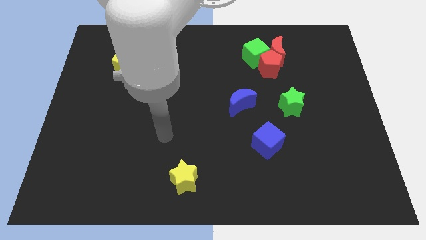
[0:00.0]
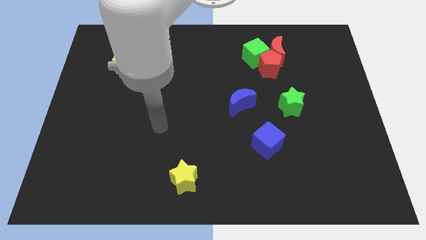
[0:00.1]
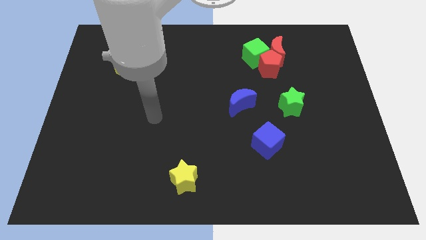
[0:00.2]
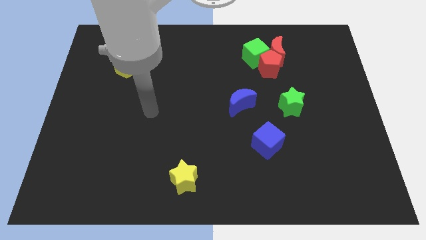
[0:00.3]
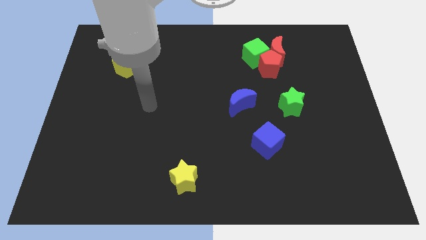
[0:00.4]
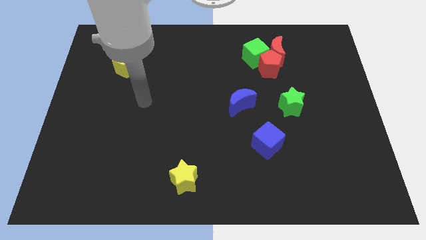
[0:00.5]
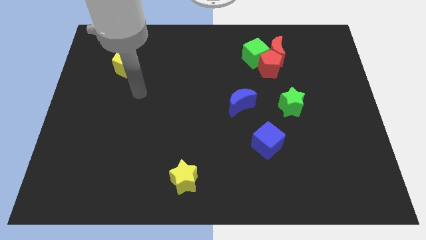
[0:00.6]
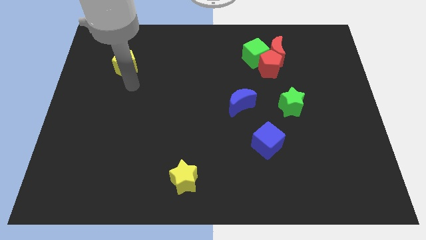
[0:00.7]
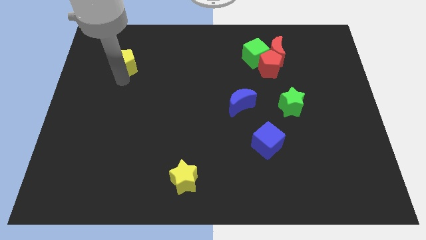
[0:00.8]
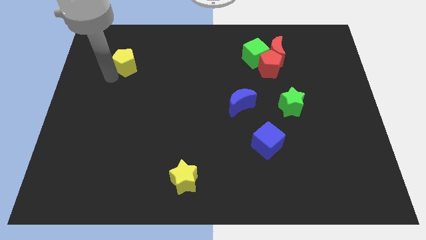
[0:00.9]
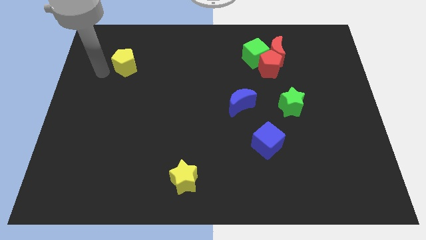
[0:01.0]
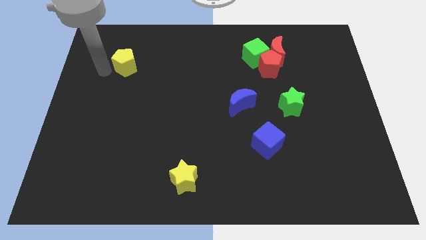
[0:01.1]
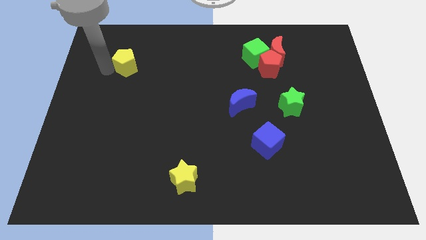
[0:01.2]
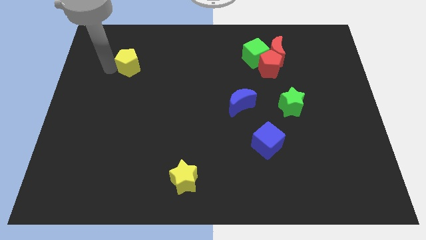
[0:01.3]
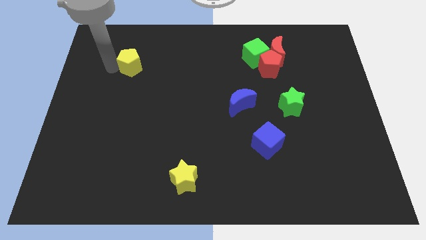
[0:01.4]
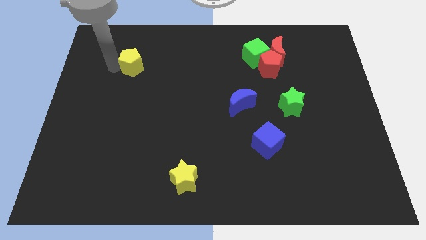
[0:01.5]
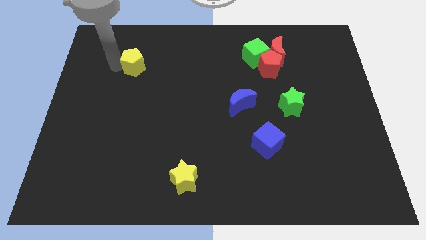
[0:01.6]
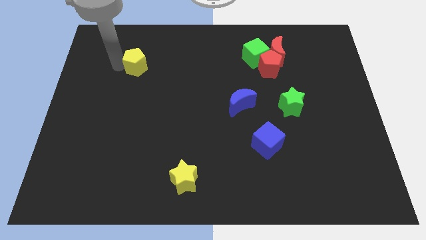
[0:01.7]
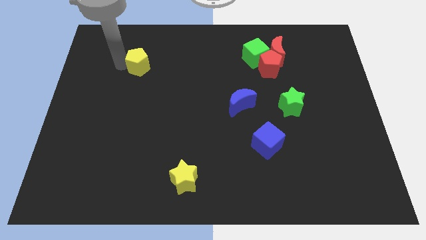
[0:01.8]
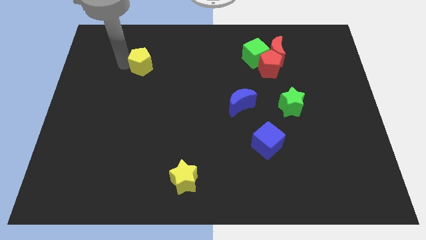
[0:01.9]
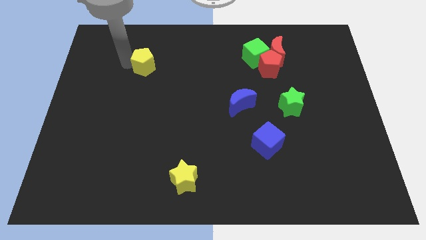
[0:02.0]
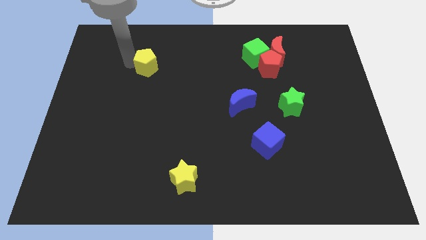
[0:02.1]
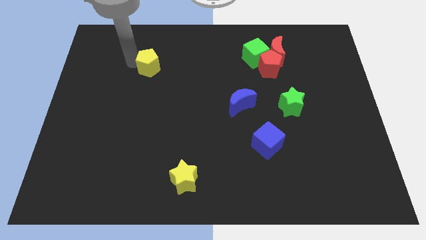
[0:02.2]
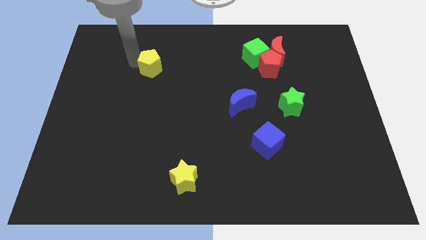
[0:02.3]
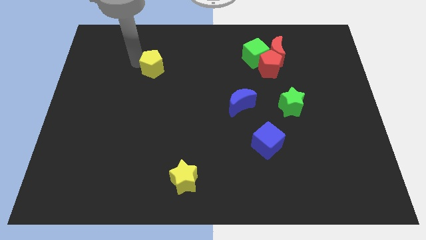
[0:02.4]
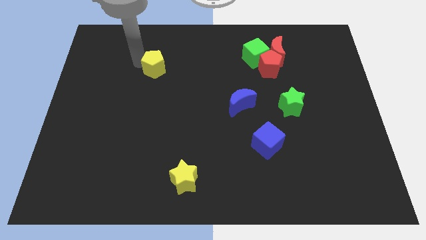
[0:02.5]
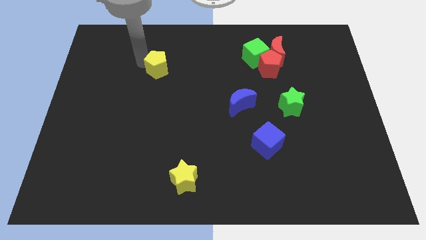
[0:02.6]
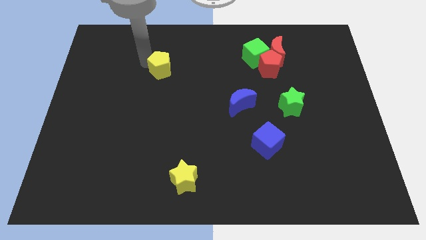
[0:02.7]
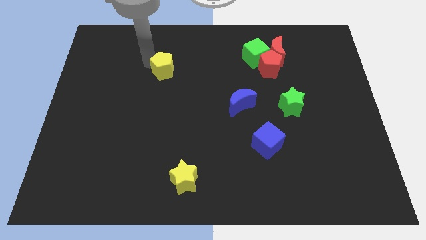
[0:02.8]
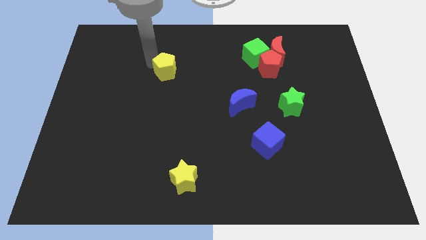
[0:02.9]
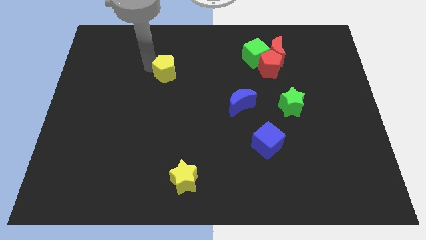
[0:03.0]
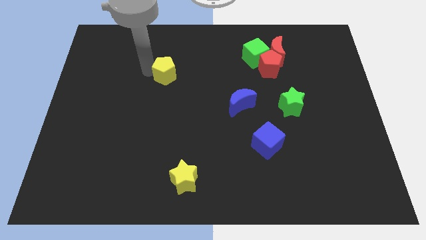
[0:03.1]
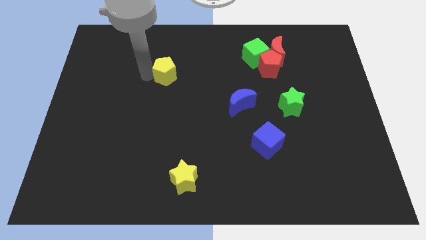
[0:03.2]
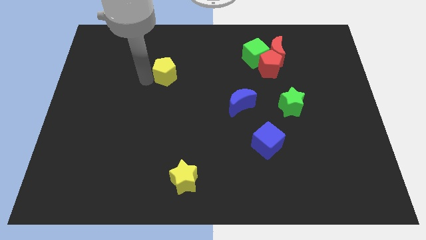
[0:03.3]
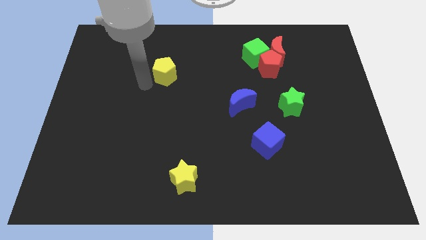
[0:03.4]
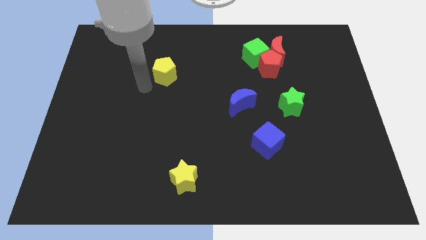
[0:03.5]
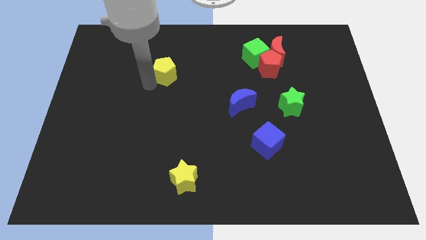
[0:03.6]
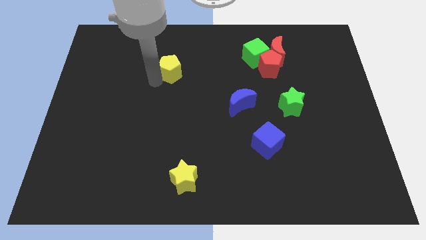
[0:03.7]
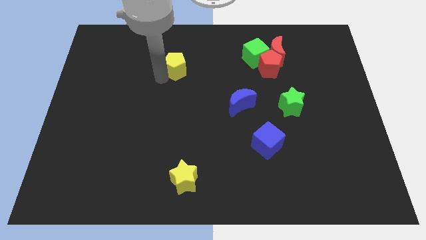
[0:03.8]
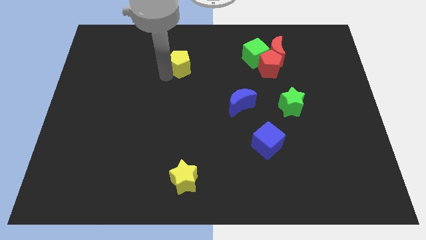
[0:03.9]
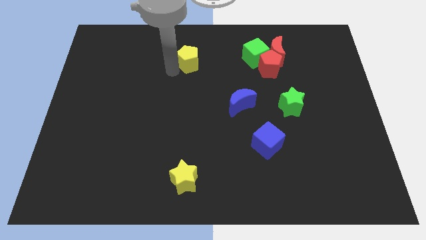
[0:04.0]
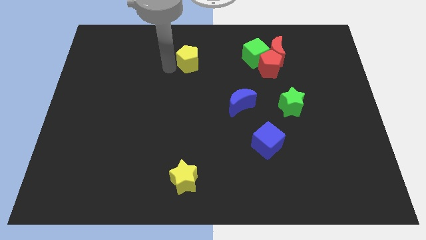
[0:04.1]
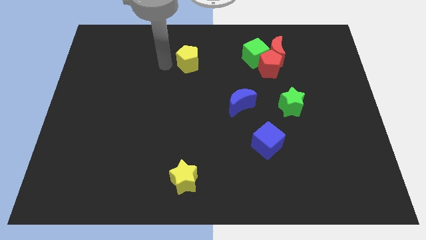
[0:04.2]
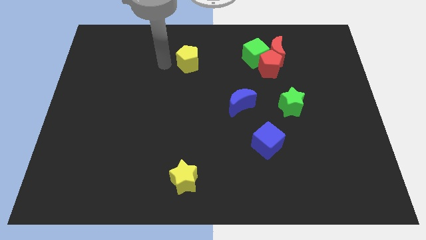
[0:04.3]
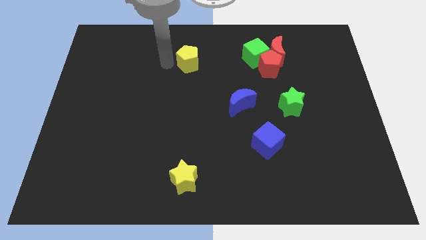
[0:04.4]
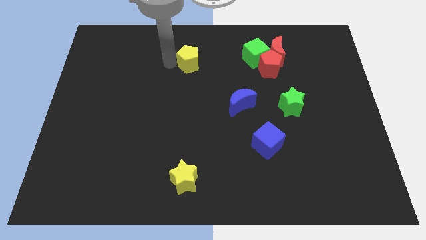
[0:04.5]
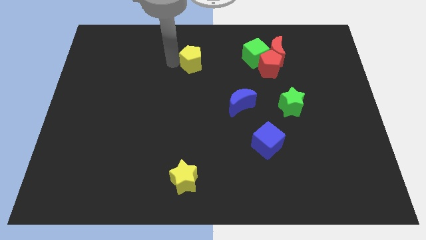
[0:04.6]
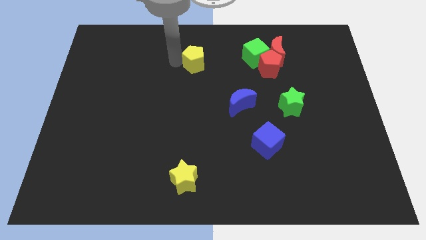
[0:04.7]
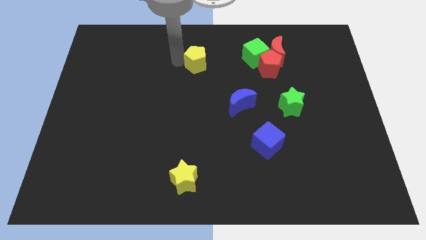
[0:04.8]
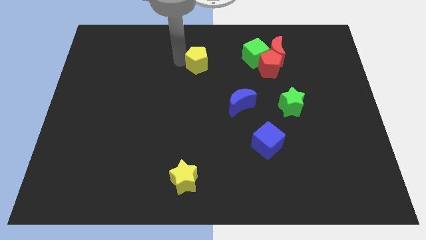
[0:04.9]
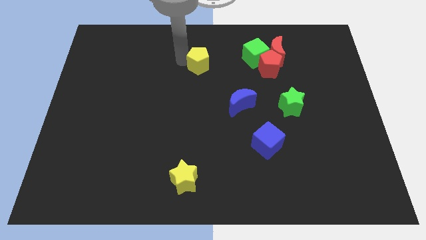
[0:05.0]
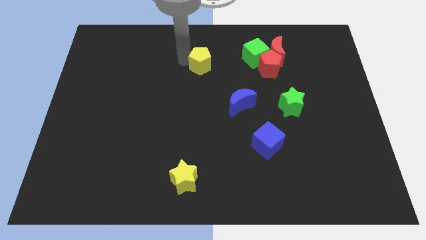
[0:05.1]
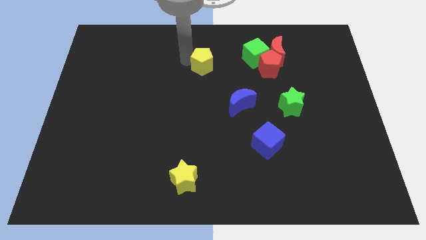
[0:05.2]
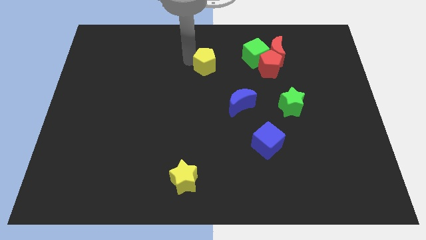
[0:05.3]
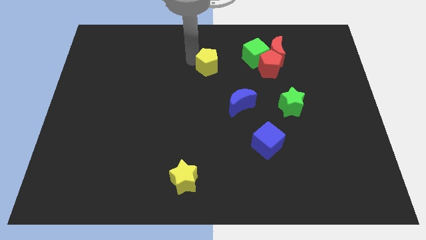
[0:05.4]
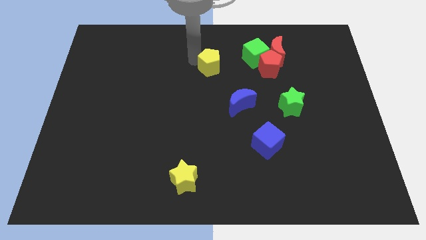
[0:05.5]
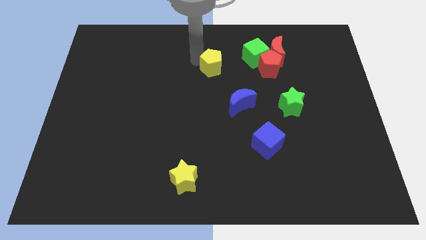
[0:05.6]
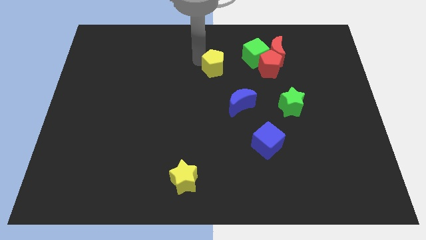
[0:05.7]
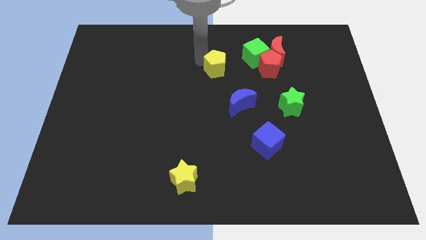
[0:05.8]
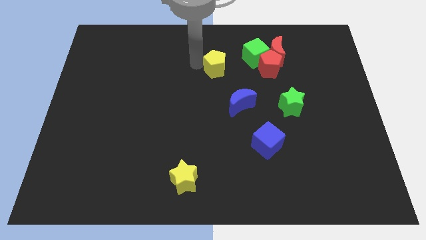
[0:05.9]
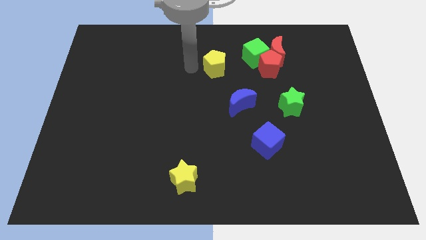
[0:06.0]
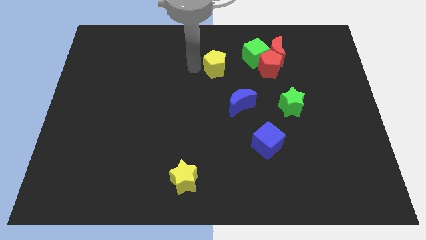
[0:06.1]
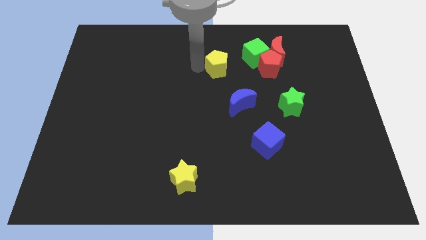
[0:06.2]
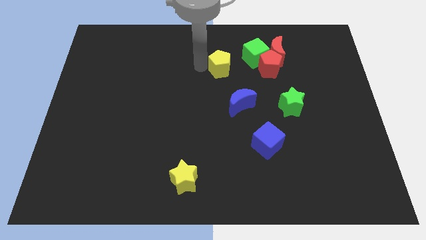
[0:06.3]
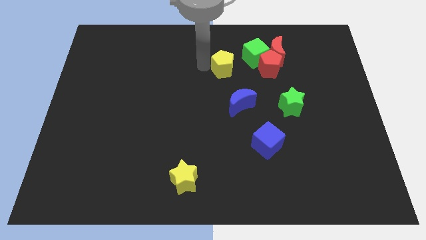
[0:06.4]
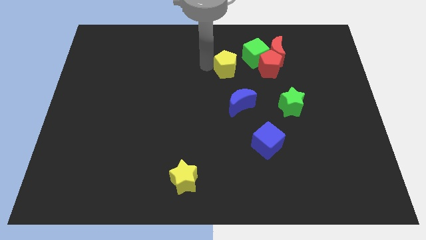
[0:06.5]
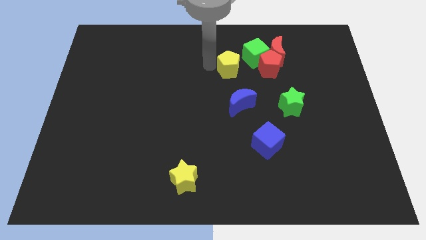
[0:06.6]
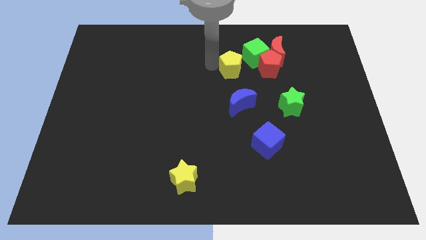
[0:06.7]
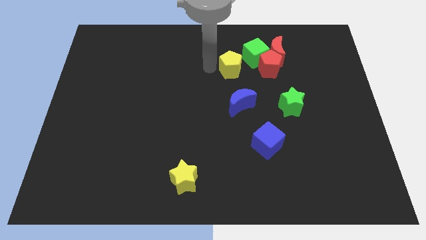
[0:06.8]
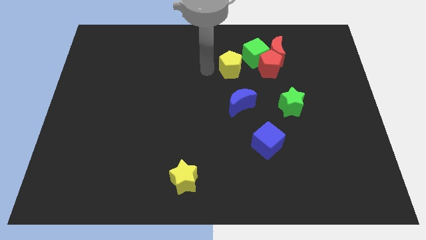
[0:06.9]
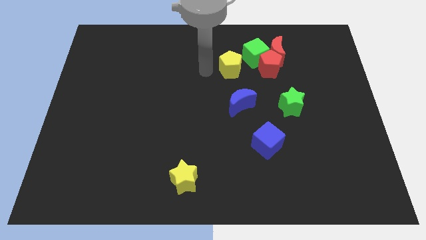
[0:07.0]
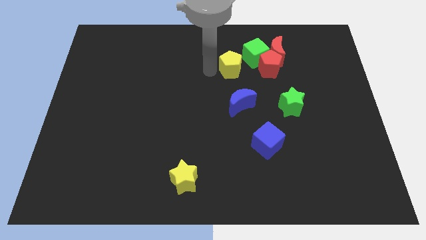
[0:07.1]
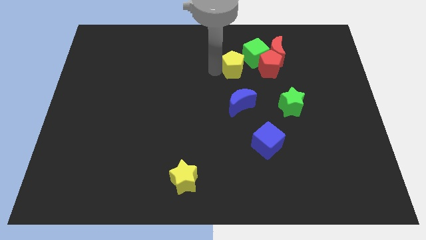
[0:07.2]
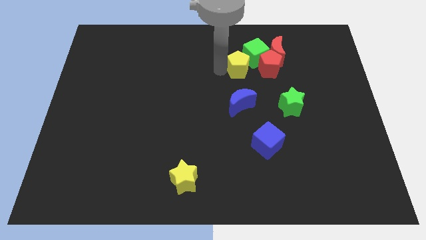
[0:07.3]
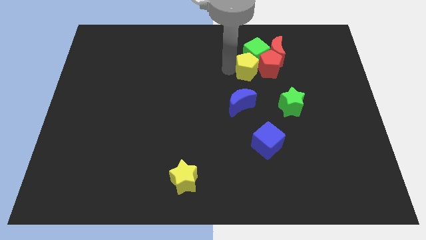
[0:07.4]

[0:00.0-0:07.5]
move the yellow pentagon towards the red pentagon

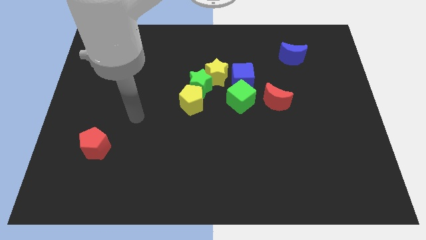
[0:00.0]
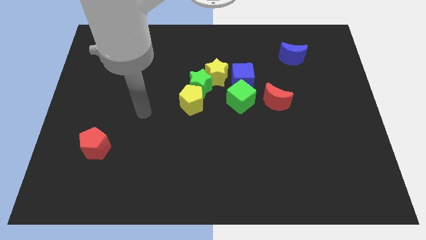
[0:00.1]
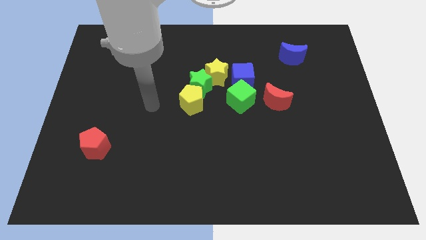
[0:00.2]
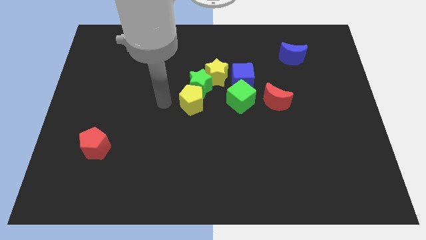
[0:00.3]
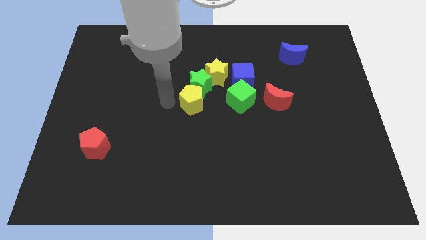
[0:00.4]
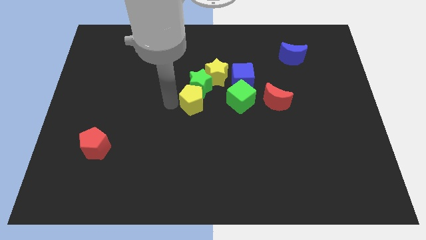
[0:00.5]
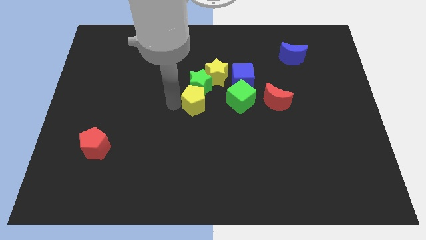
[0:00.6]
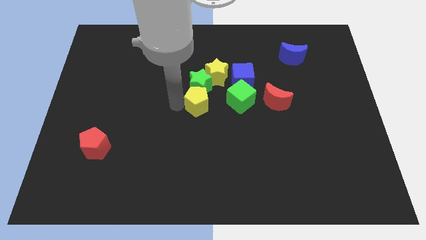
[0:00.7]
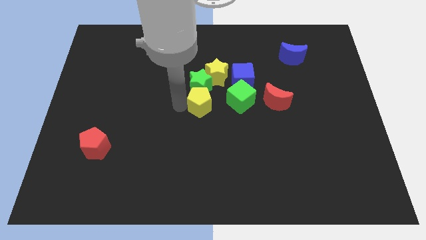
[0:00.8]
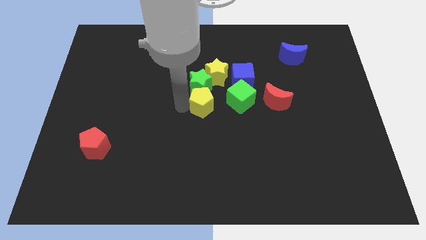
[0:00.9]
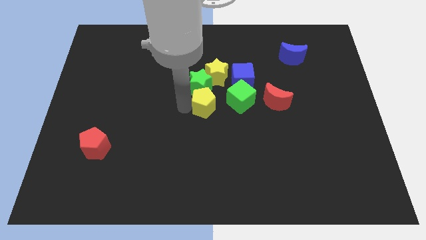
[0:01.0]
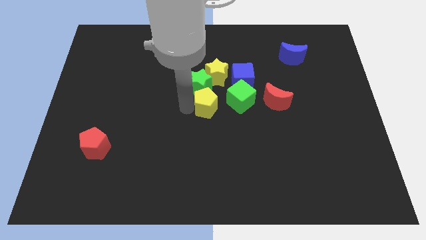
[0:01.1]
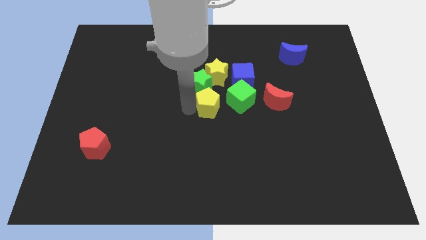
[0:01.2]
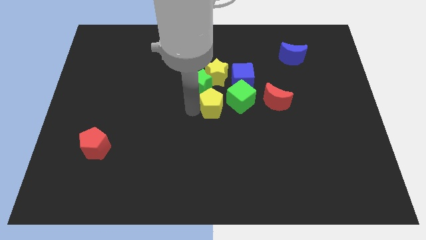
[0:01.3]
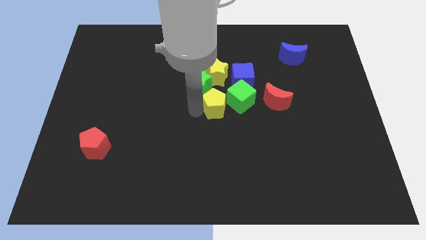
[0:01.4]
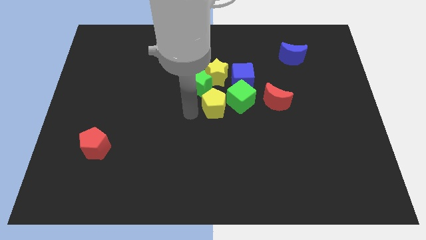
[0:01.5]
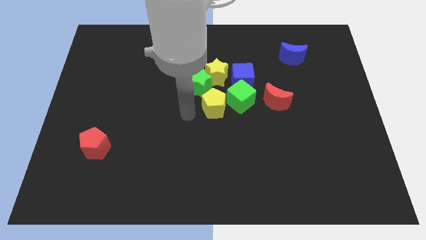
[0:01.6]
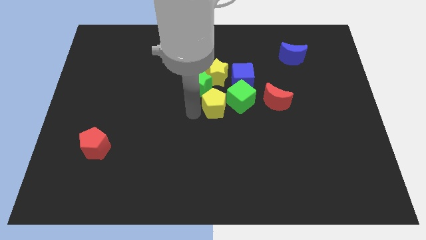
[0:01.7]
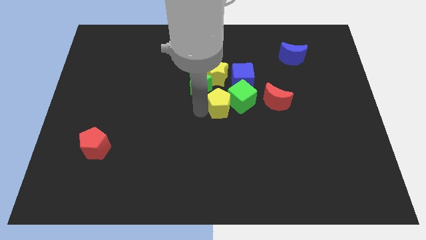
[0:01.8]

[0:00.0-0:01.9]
put the yellow pentagon next to the green cube
